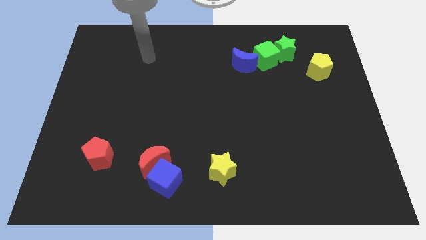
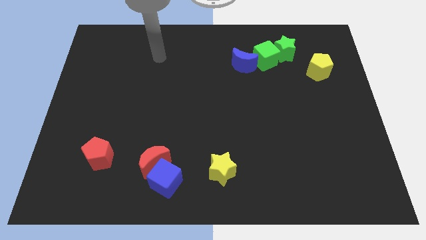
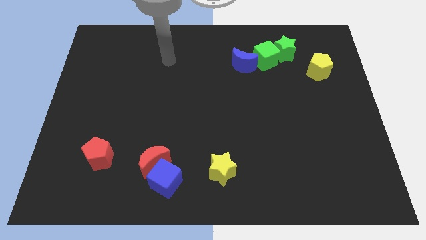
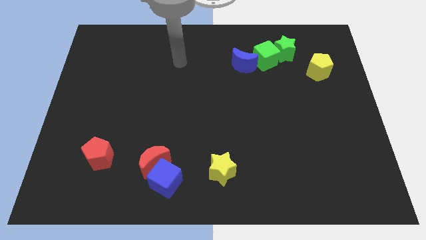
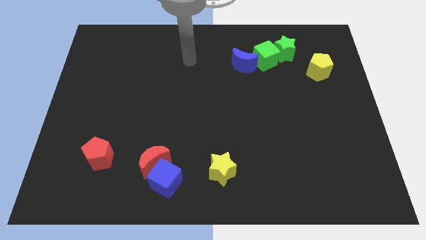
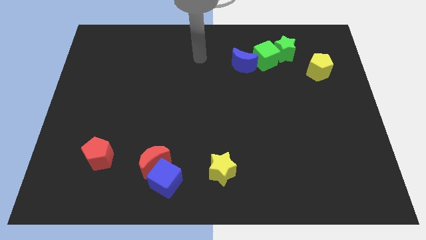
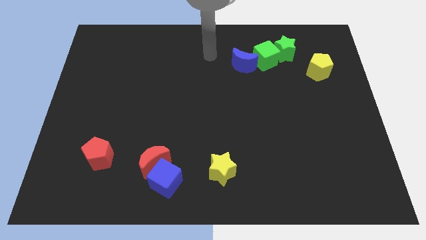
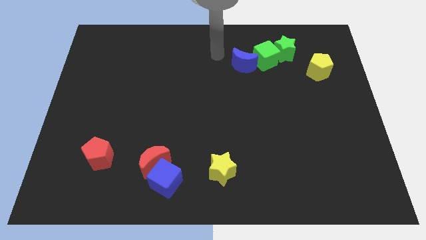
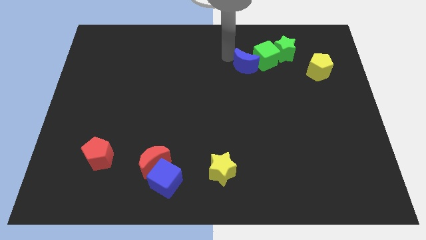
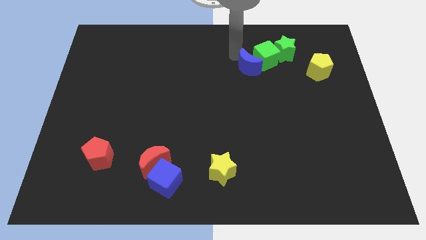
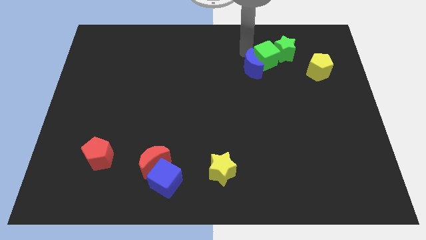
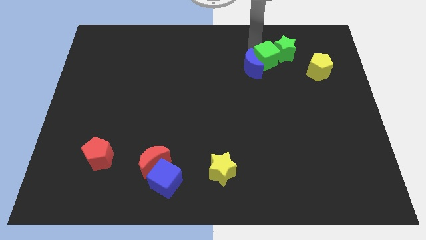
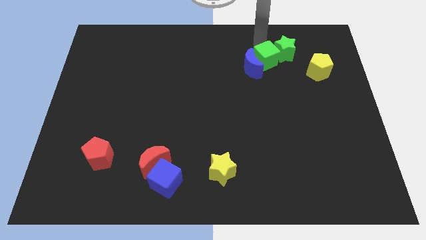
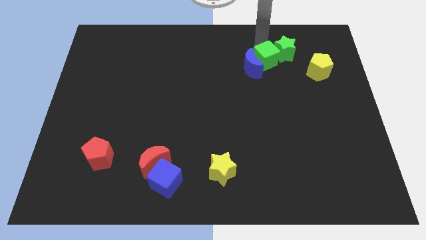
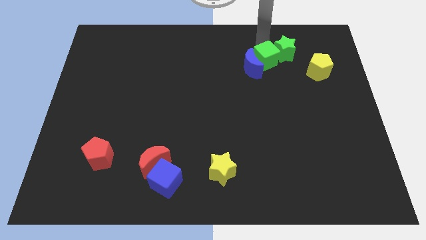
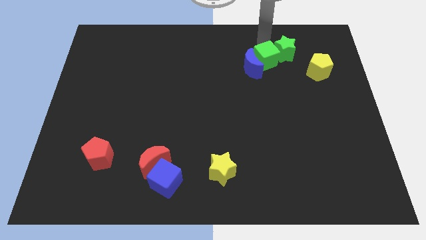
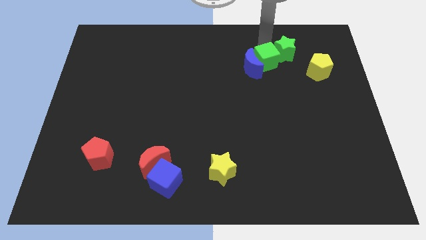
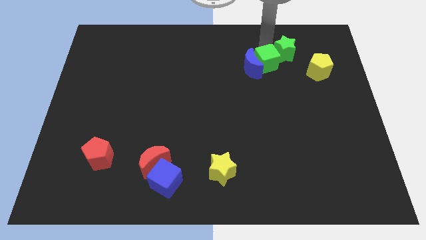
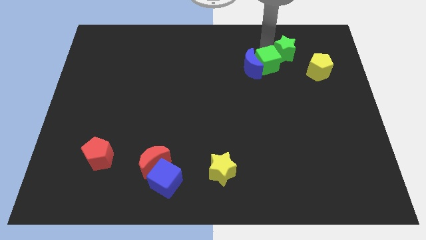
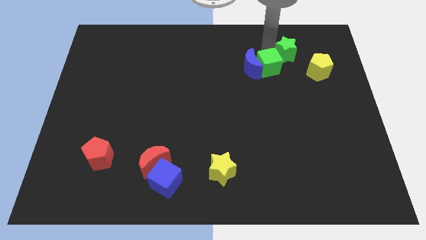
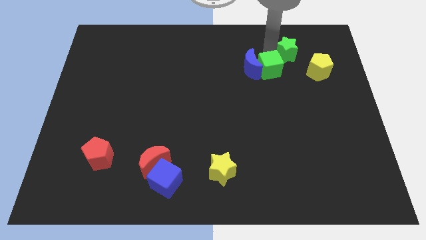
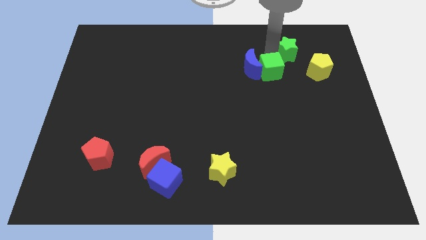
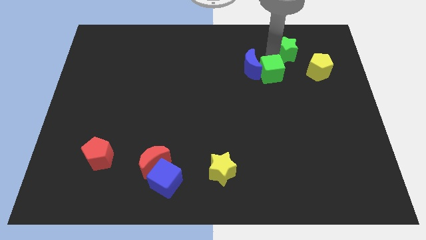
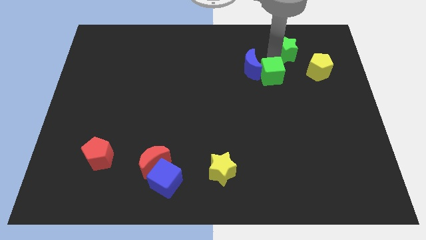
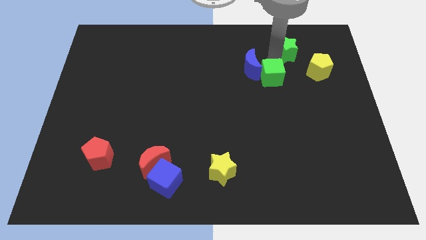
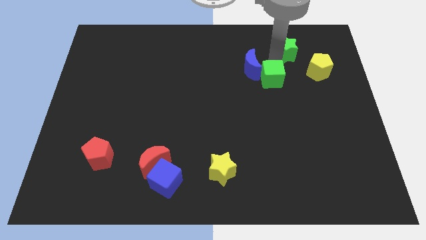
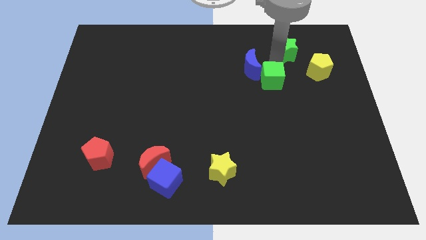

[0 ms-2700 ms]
move the green cube a little down

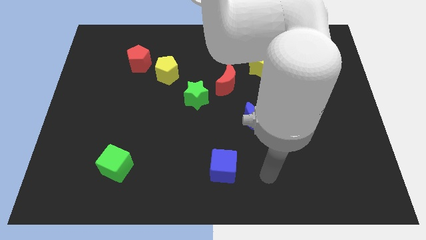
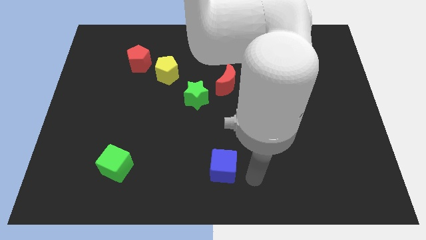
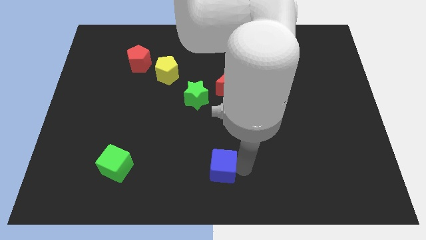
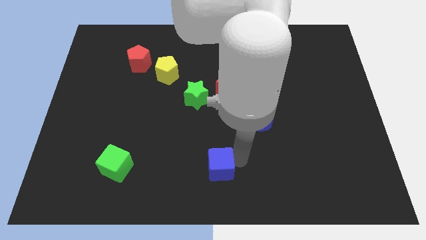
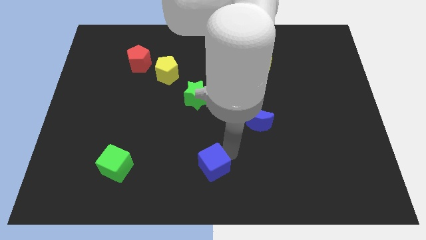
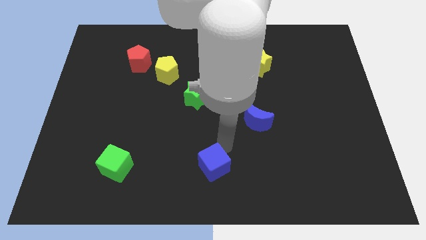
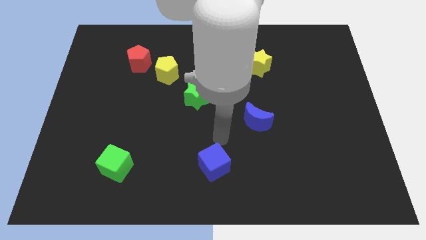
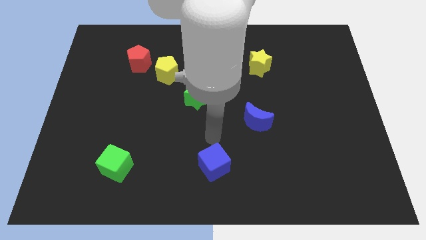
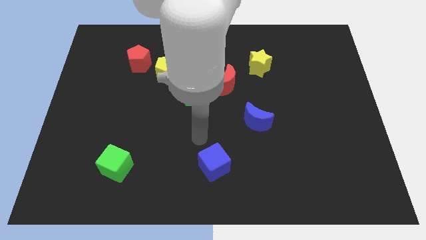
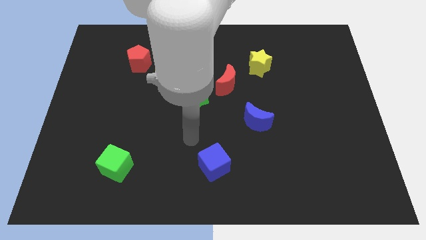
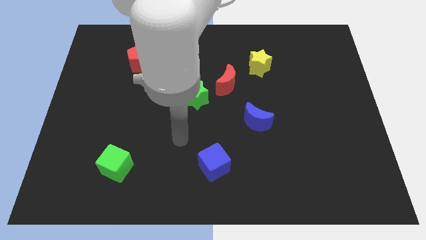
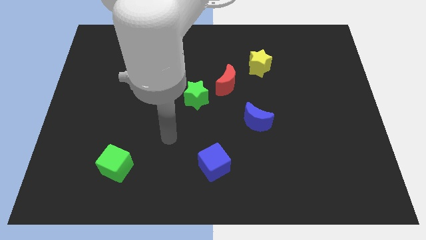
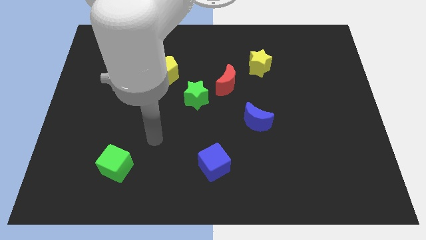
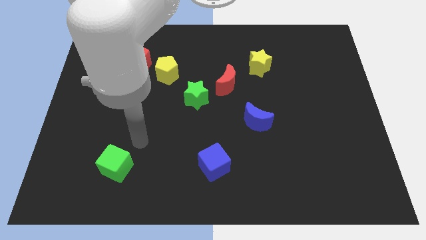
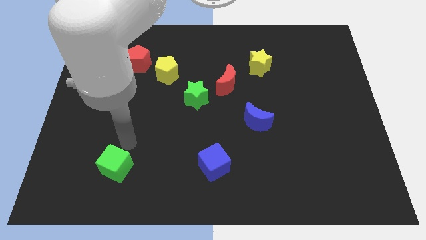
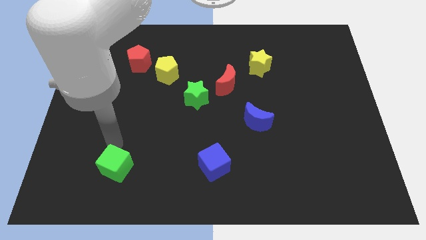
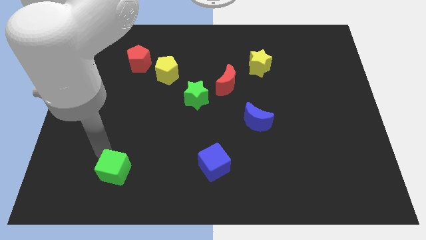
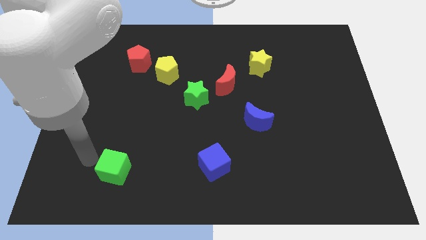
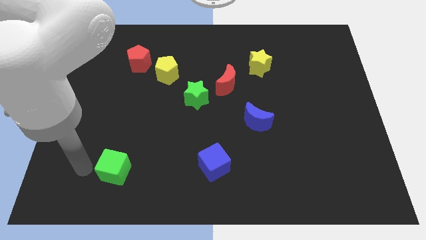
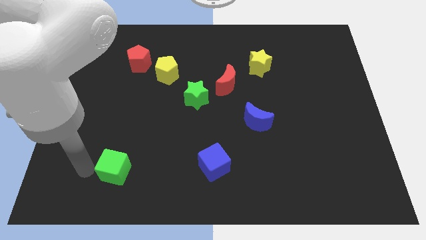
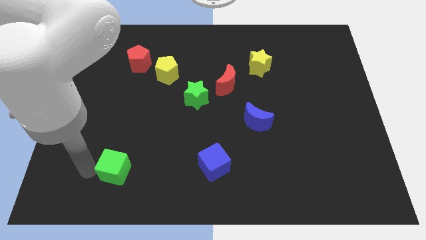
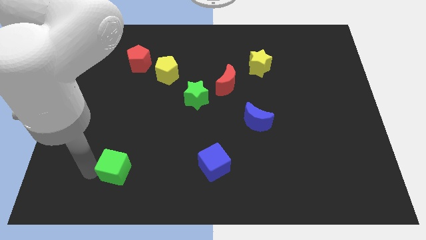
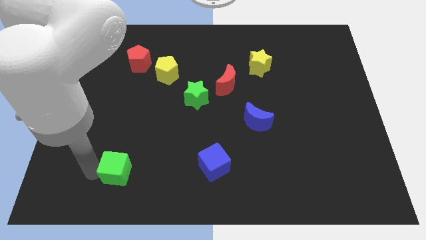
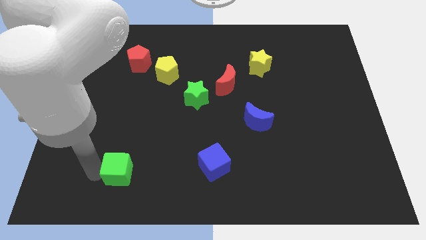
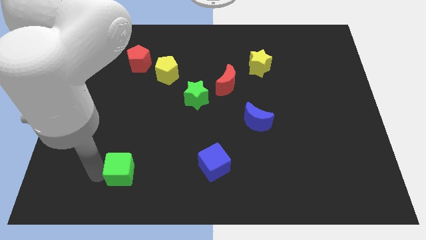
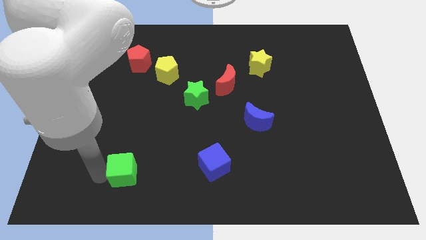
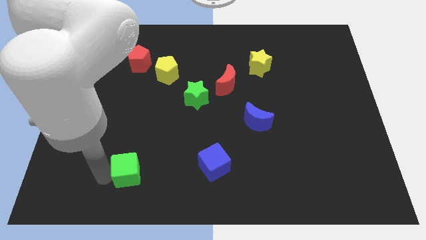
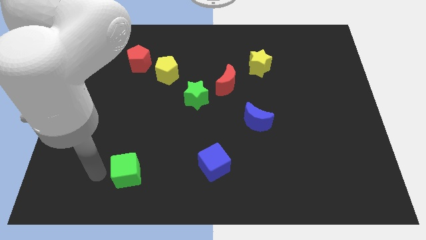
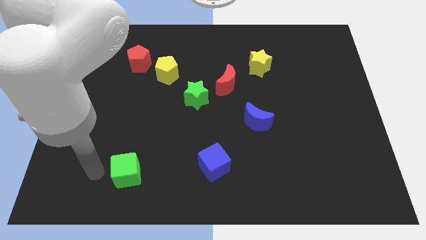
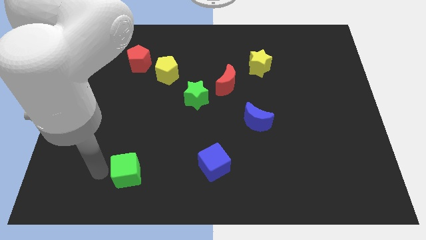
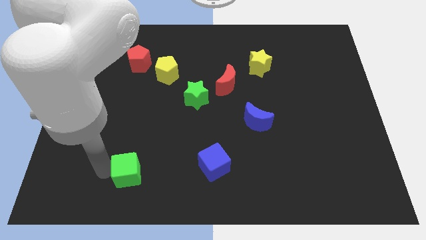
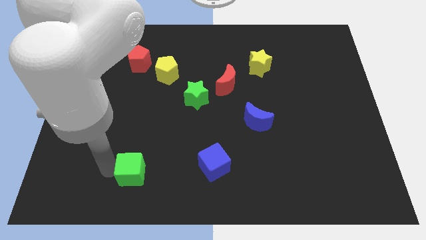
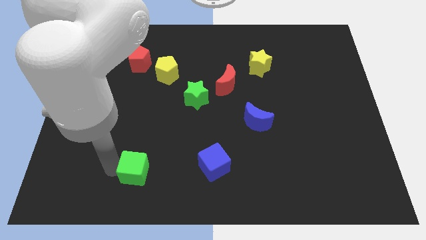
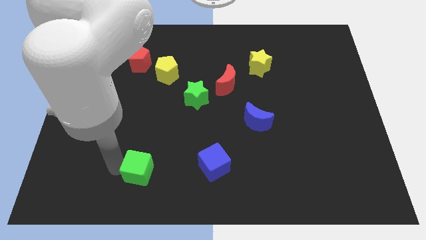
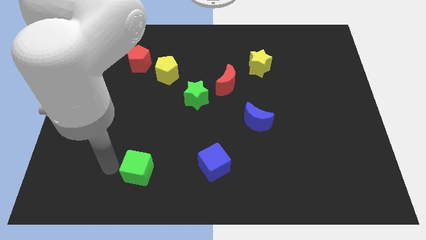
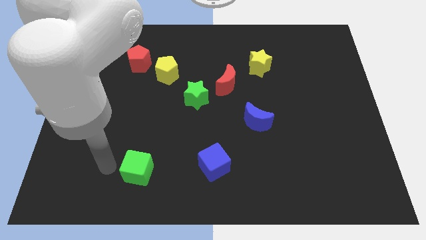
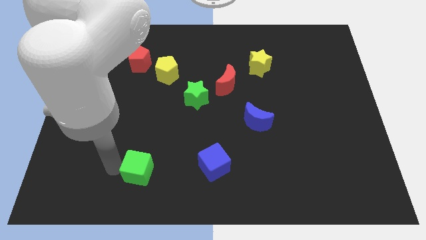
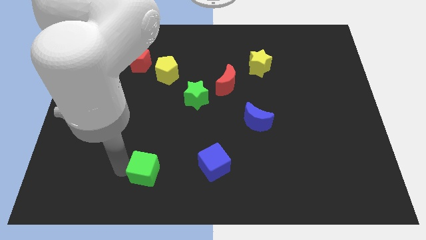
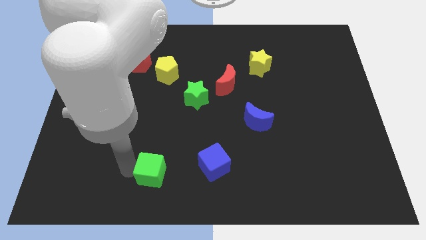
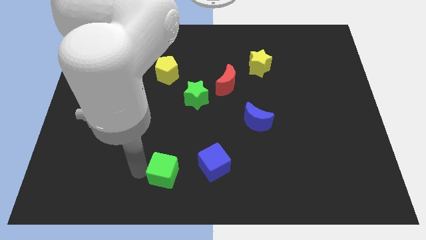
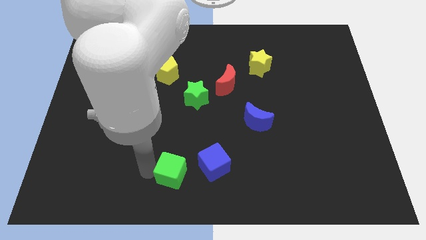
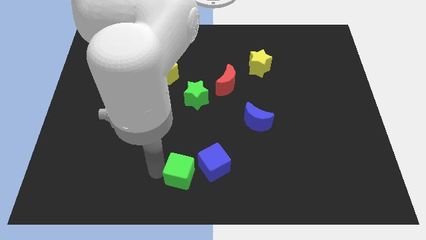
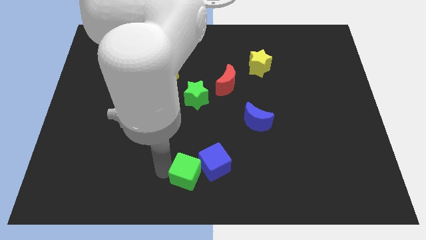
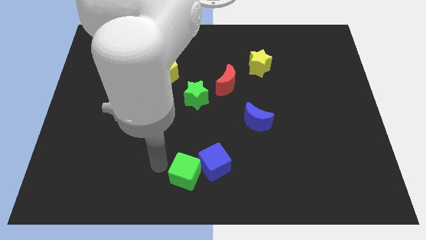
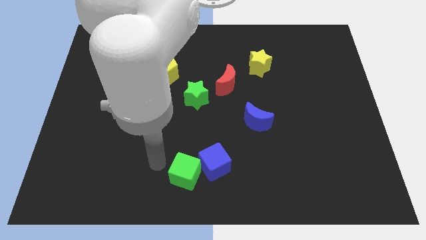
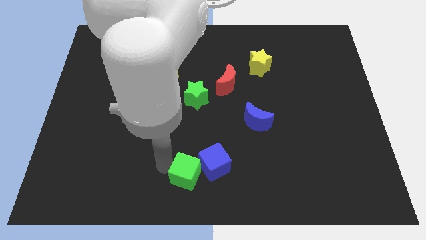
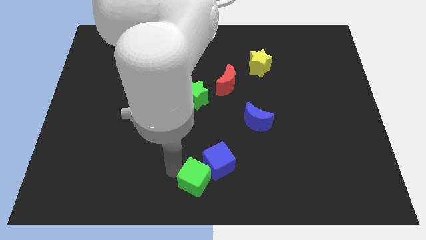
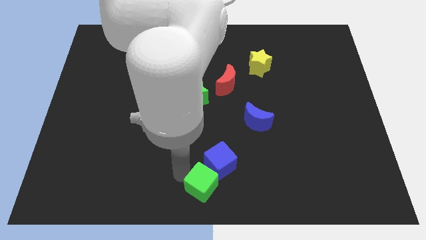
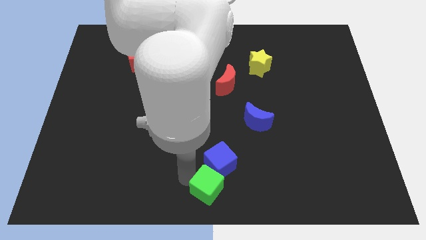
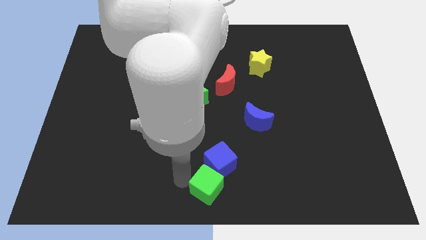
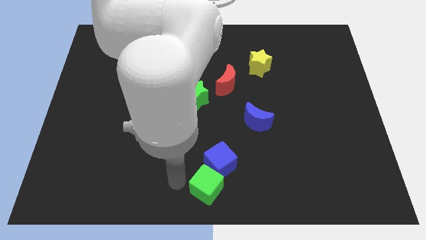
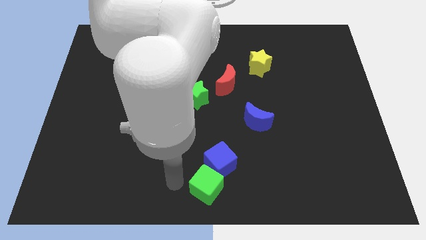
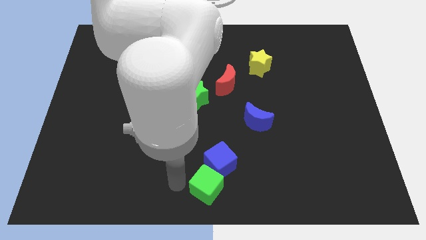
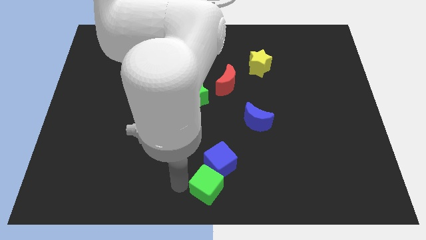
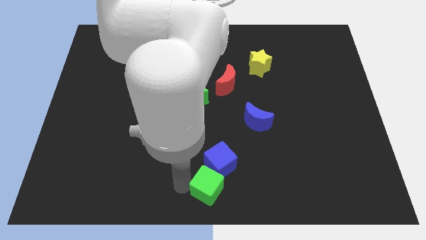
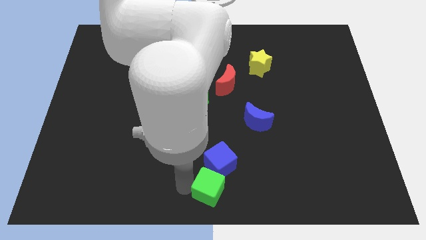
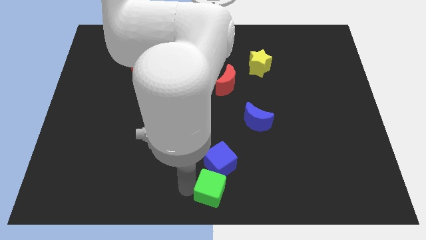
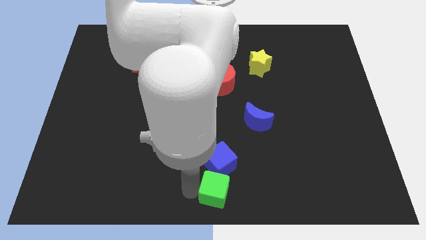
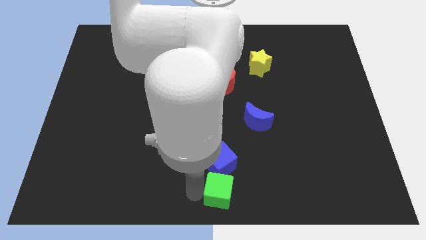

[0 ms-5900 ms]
move the green cube to the right
